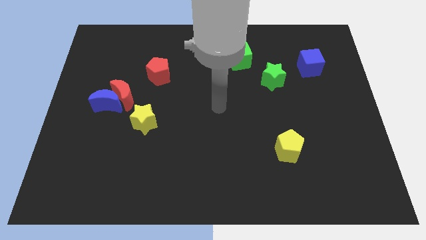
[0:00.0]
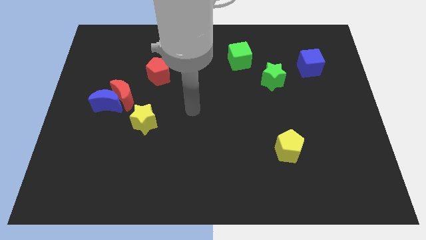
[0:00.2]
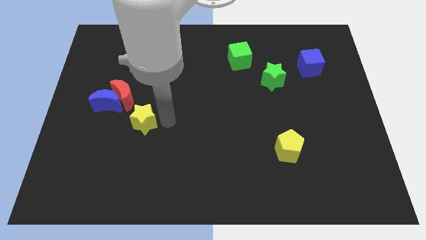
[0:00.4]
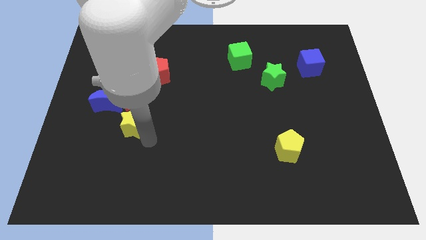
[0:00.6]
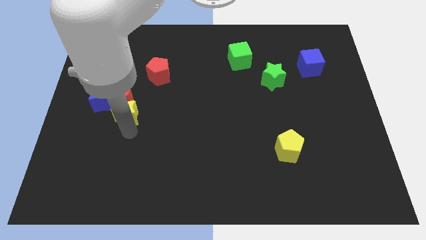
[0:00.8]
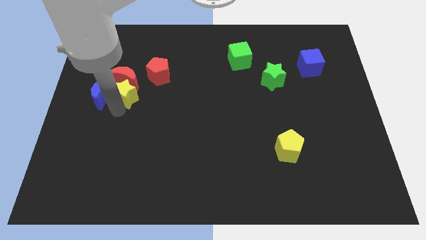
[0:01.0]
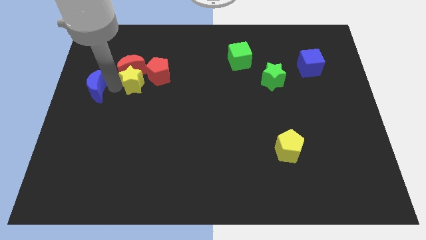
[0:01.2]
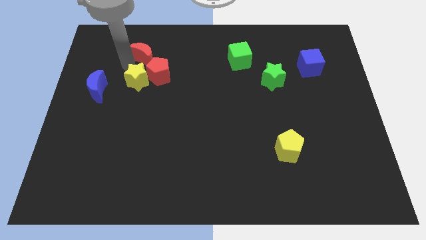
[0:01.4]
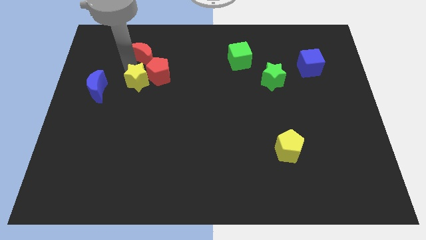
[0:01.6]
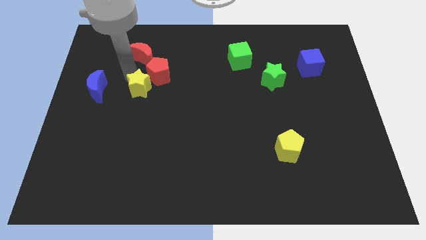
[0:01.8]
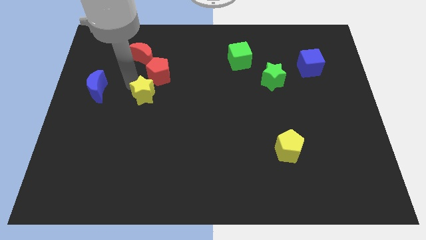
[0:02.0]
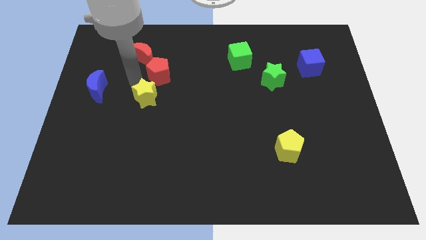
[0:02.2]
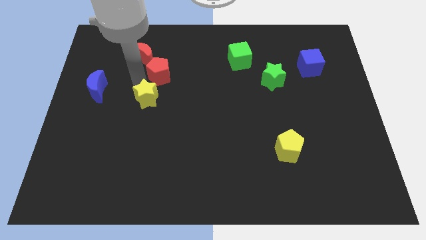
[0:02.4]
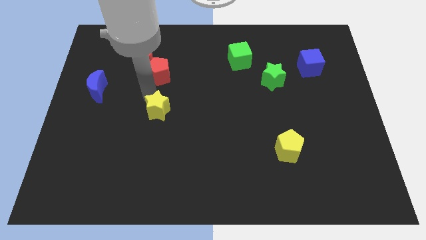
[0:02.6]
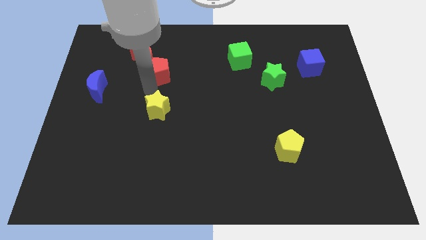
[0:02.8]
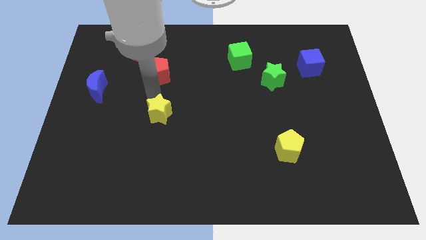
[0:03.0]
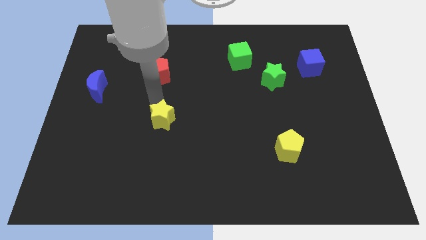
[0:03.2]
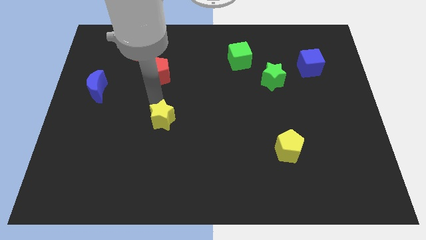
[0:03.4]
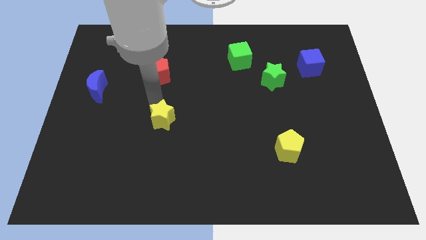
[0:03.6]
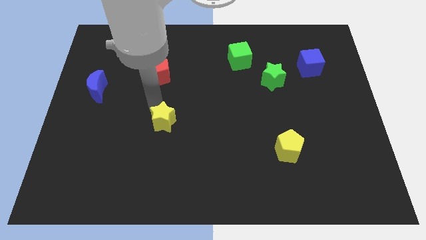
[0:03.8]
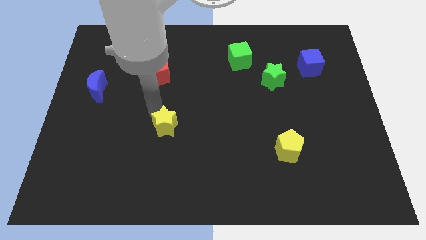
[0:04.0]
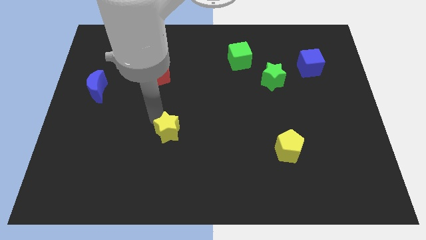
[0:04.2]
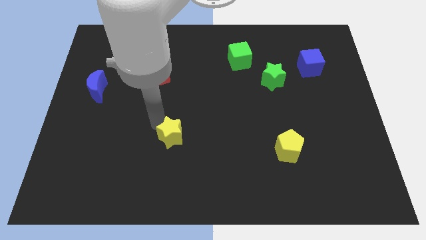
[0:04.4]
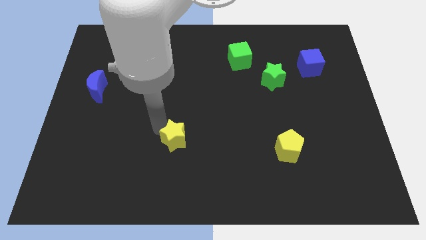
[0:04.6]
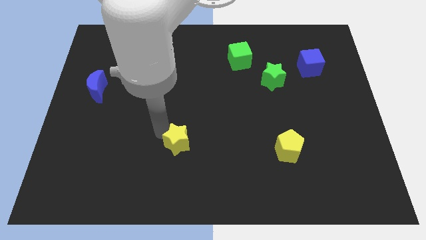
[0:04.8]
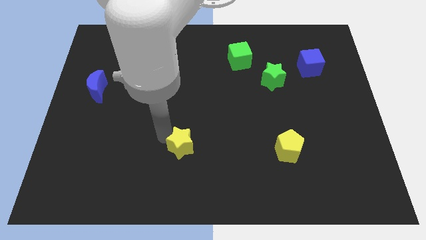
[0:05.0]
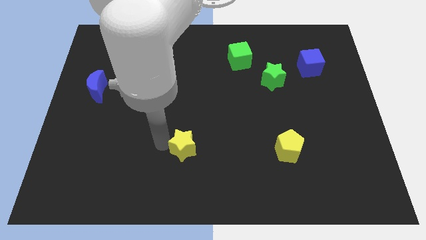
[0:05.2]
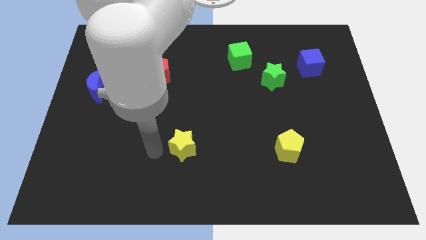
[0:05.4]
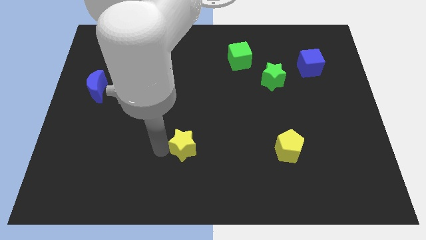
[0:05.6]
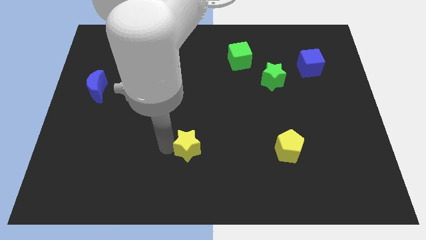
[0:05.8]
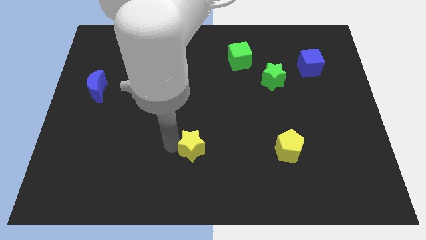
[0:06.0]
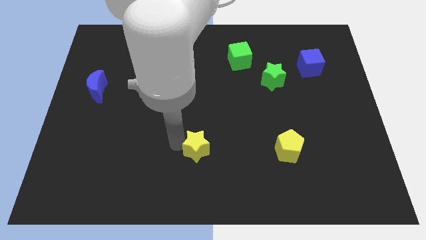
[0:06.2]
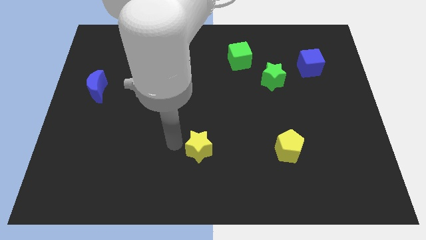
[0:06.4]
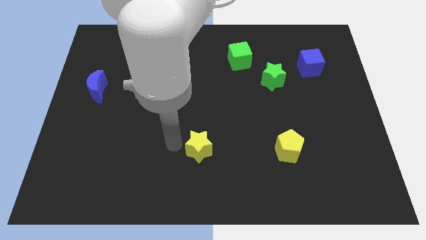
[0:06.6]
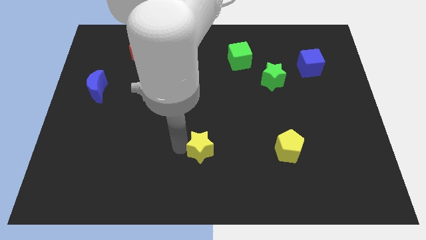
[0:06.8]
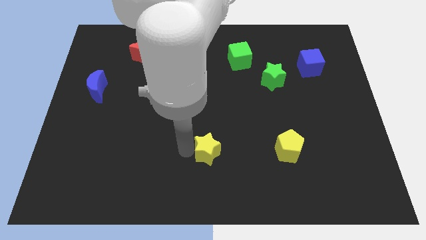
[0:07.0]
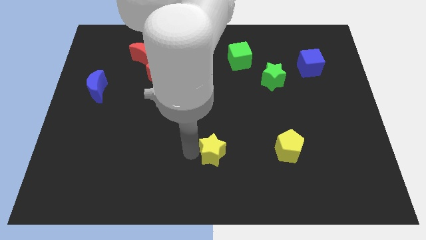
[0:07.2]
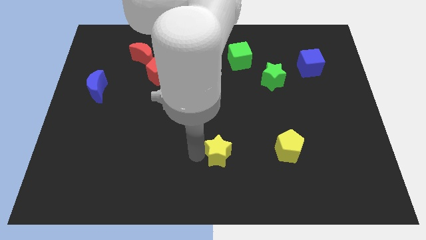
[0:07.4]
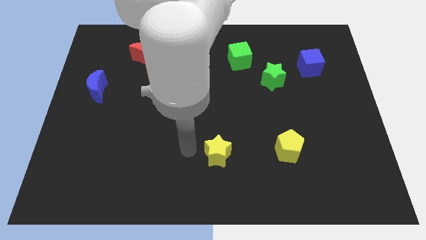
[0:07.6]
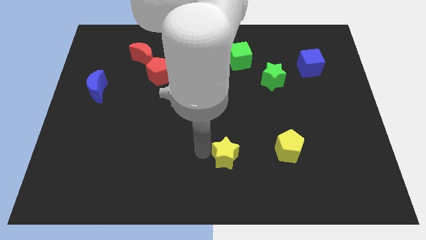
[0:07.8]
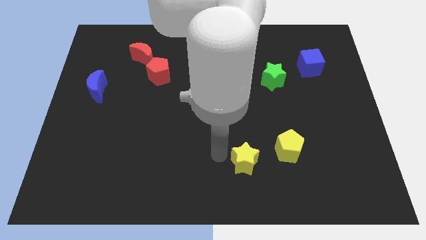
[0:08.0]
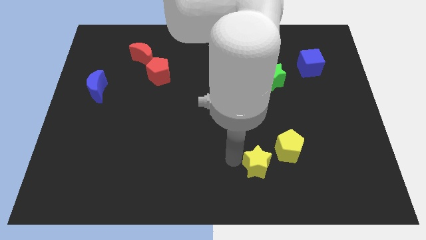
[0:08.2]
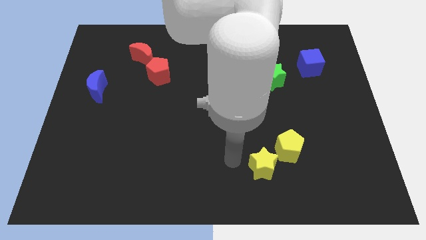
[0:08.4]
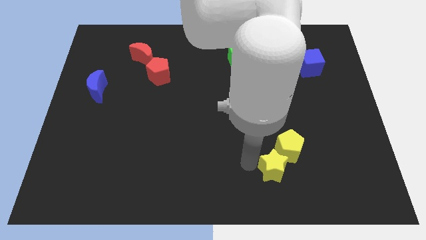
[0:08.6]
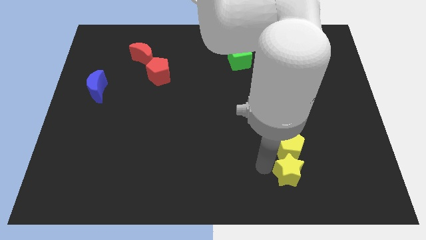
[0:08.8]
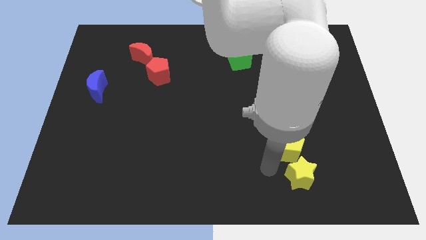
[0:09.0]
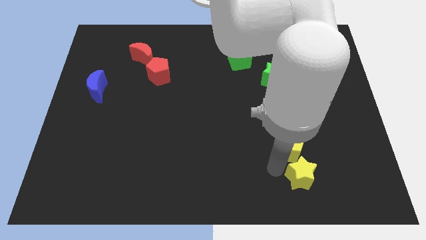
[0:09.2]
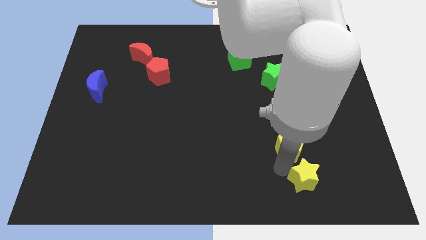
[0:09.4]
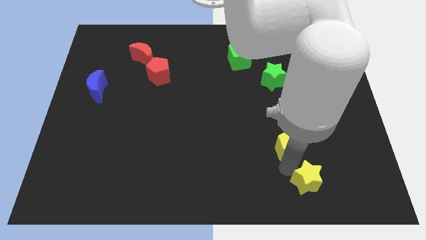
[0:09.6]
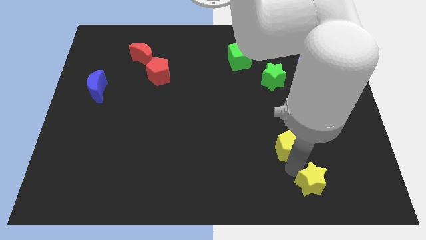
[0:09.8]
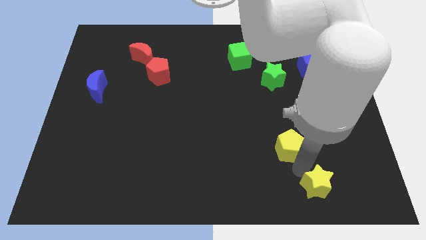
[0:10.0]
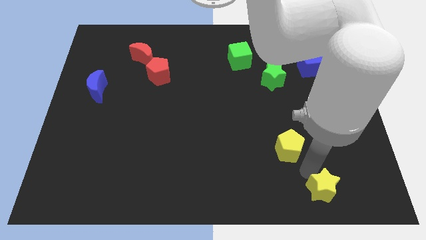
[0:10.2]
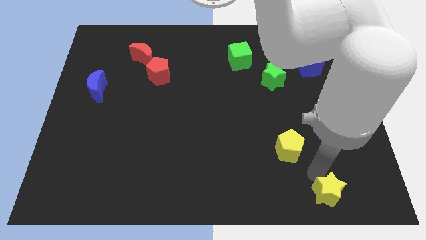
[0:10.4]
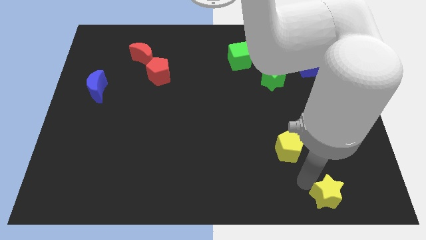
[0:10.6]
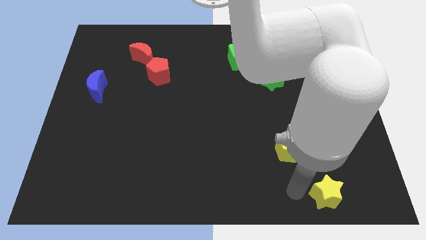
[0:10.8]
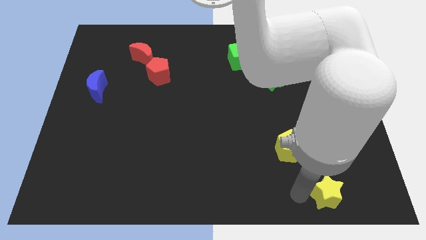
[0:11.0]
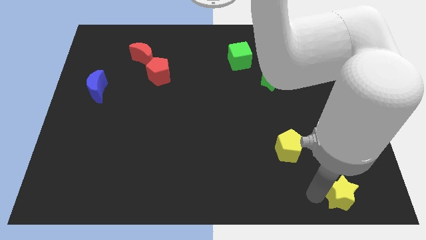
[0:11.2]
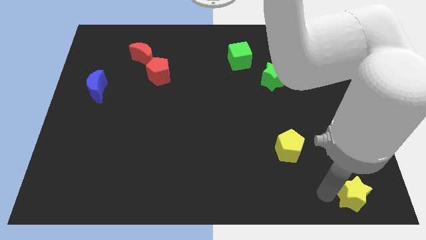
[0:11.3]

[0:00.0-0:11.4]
slide the yellow star to the bottom right
